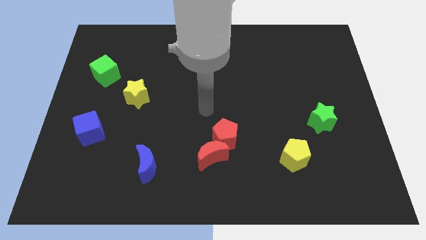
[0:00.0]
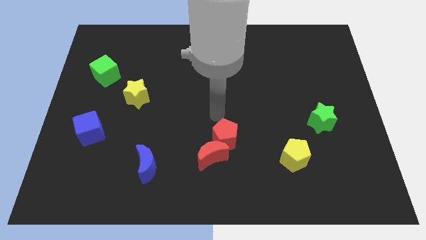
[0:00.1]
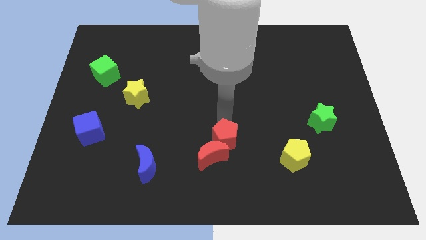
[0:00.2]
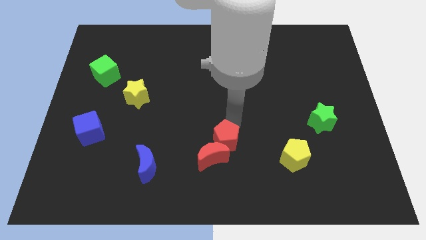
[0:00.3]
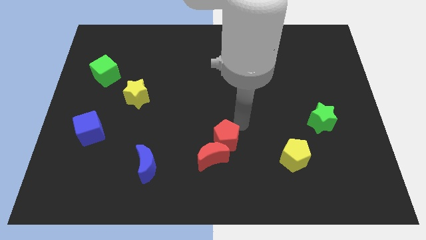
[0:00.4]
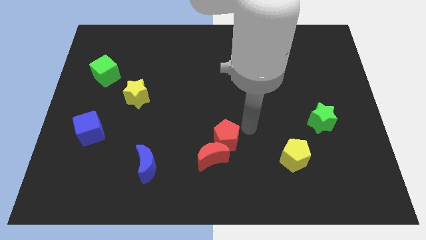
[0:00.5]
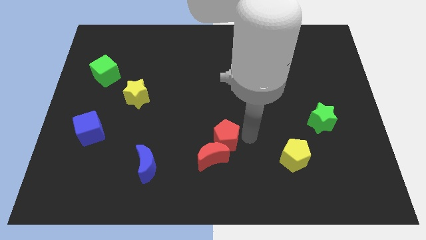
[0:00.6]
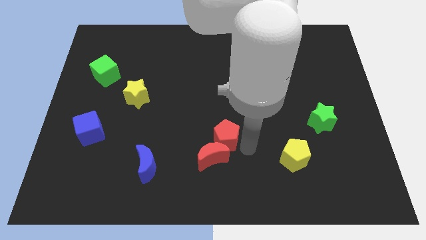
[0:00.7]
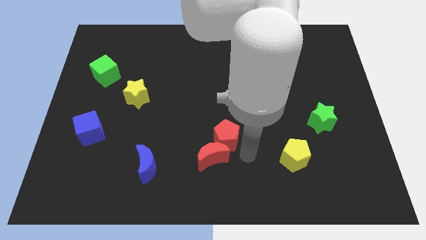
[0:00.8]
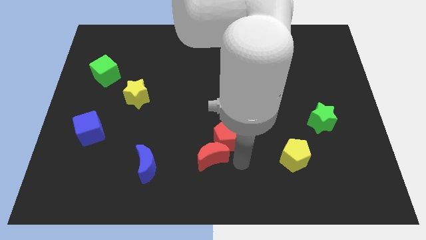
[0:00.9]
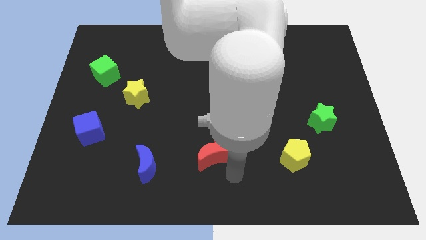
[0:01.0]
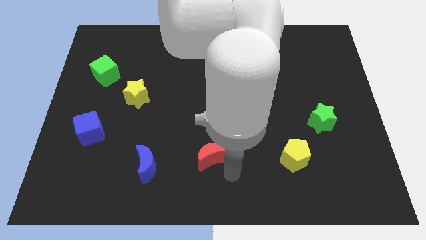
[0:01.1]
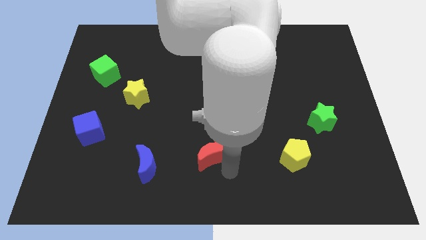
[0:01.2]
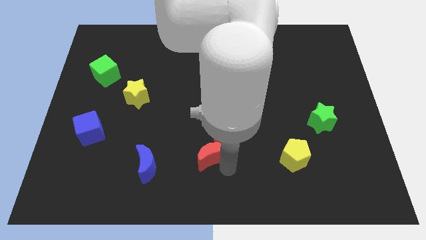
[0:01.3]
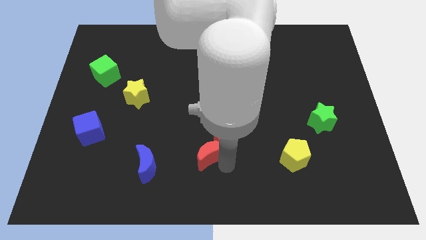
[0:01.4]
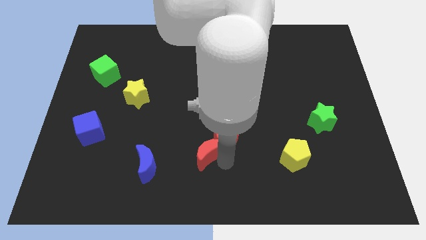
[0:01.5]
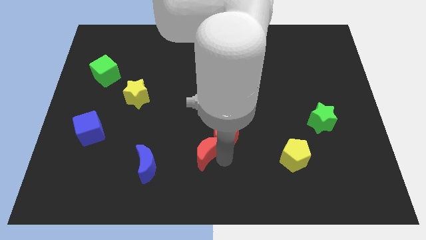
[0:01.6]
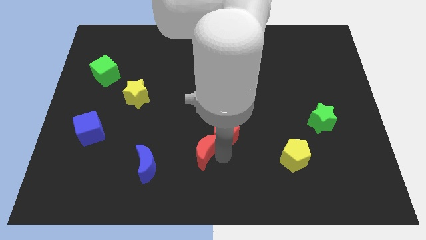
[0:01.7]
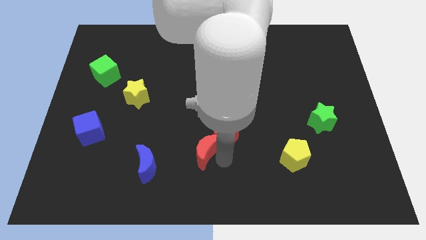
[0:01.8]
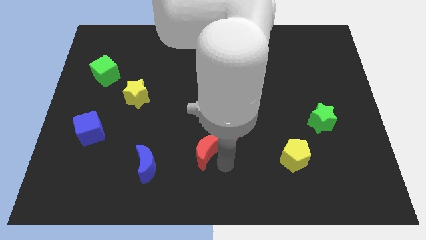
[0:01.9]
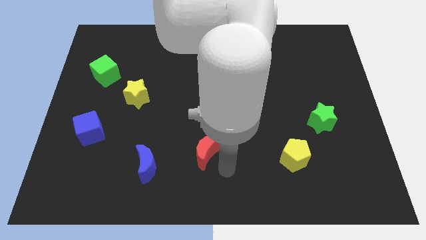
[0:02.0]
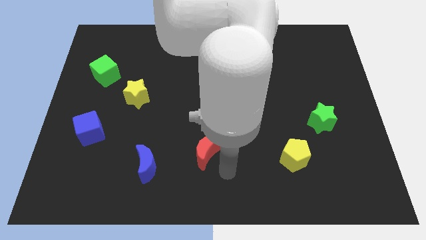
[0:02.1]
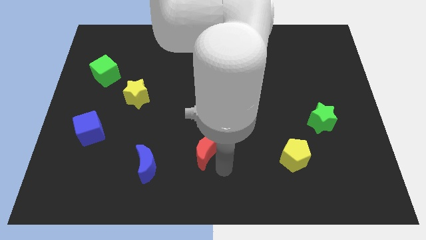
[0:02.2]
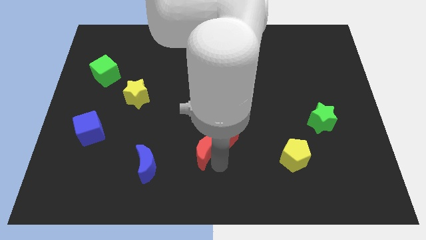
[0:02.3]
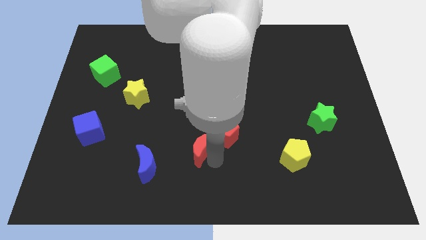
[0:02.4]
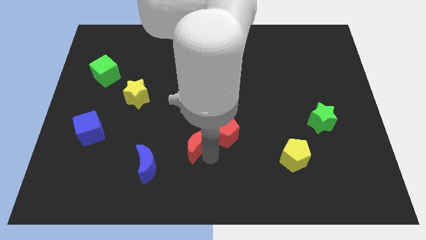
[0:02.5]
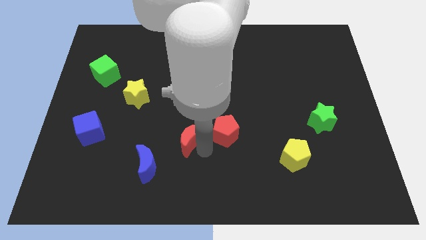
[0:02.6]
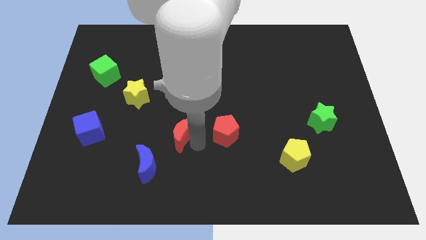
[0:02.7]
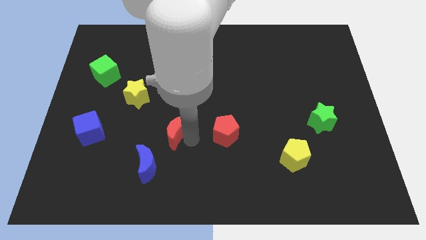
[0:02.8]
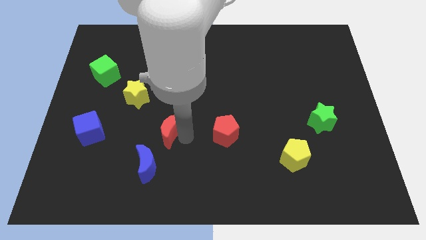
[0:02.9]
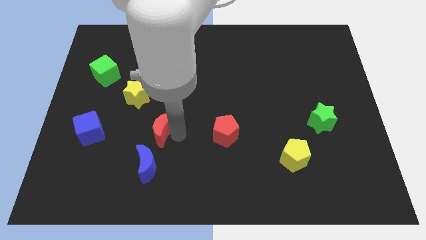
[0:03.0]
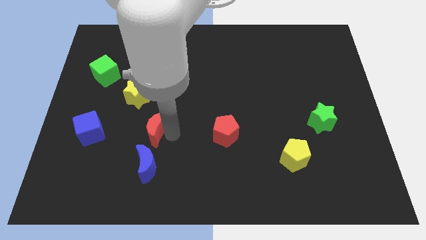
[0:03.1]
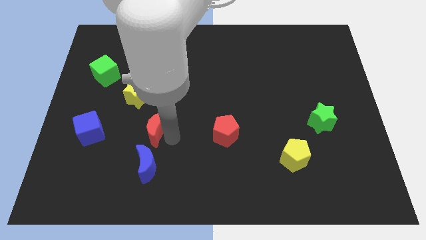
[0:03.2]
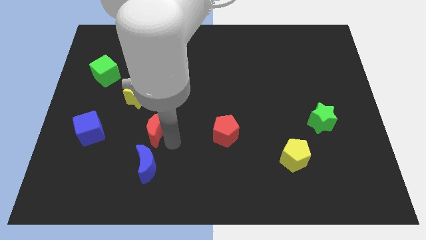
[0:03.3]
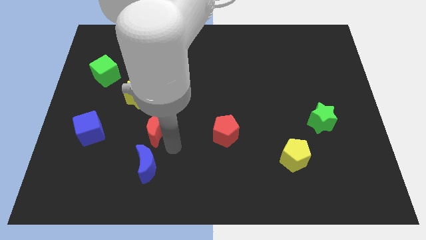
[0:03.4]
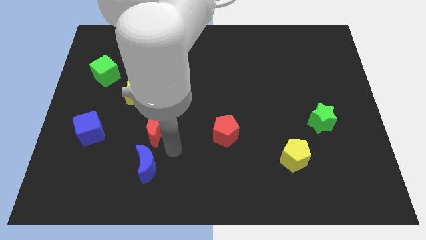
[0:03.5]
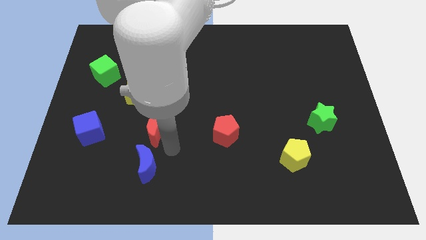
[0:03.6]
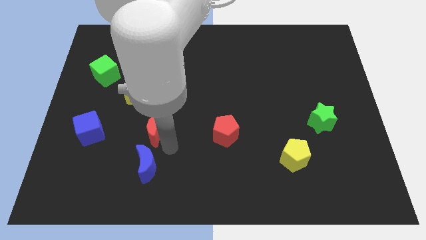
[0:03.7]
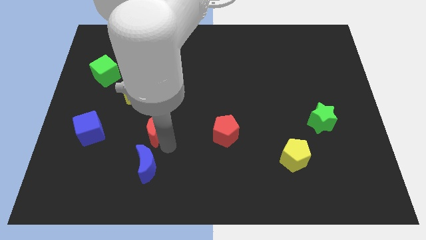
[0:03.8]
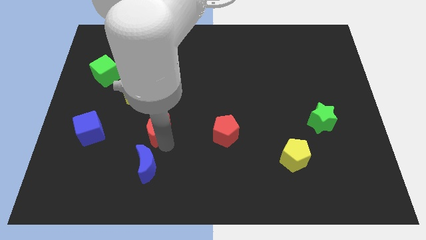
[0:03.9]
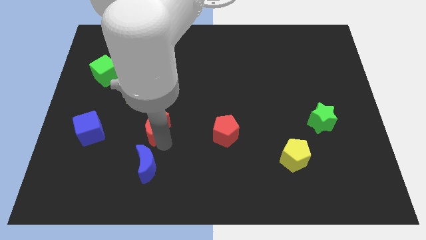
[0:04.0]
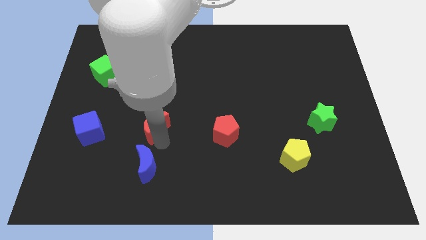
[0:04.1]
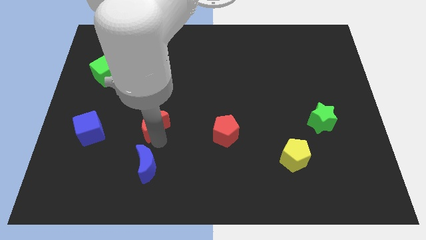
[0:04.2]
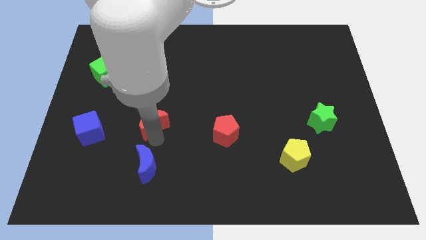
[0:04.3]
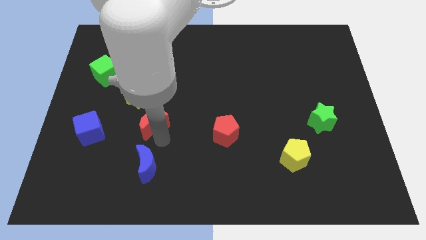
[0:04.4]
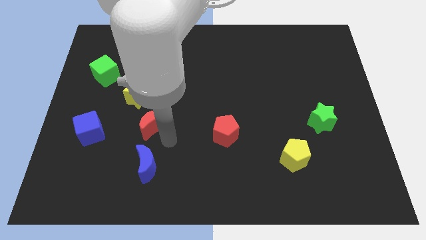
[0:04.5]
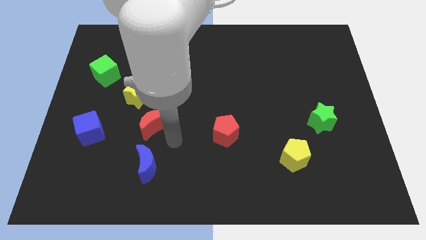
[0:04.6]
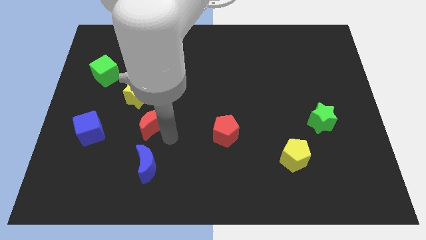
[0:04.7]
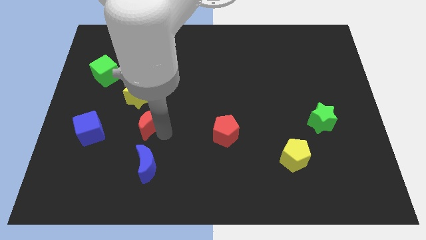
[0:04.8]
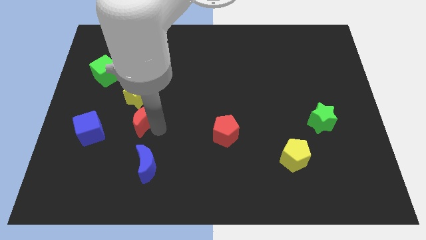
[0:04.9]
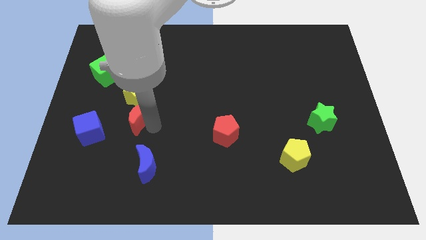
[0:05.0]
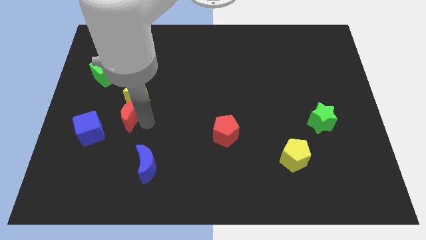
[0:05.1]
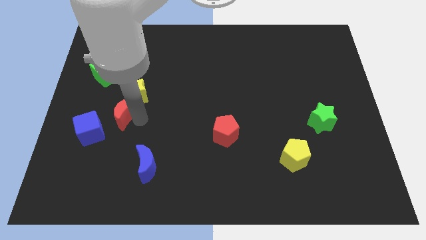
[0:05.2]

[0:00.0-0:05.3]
move the red moon upwards and to the left

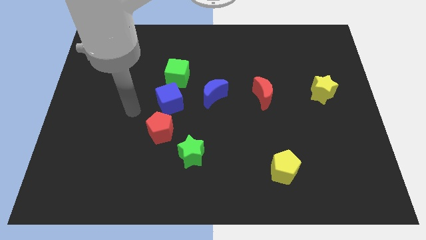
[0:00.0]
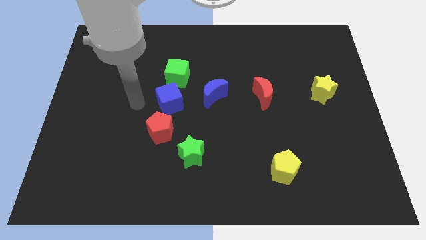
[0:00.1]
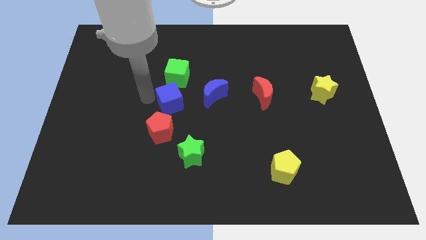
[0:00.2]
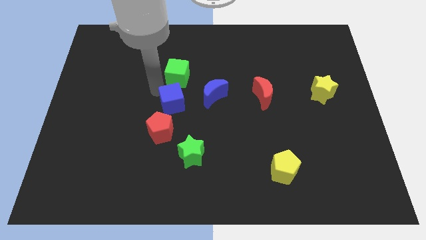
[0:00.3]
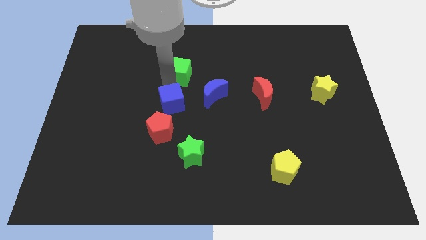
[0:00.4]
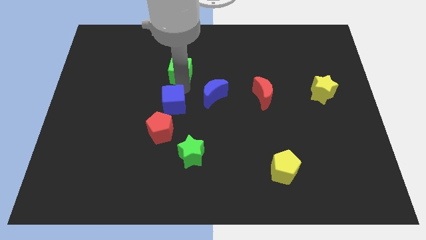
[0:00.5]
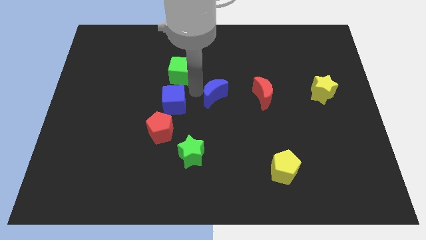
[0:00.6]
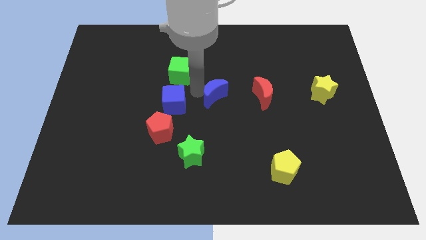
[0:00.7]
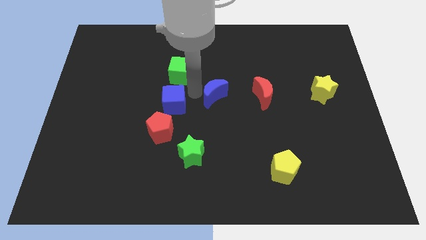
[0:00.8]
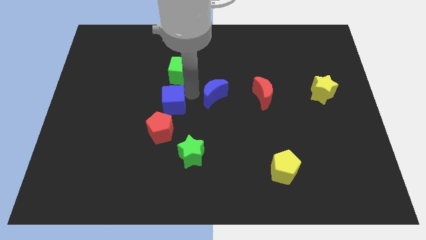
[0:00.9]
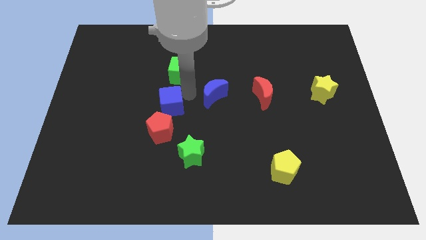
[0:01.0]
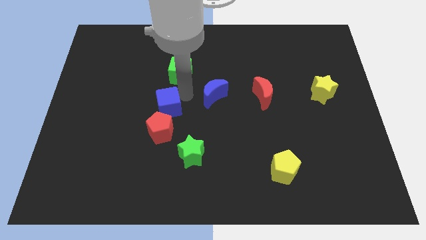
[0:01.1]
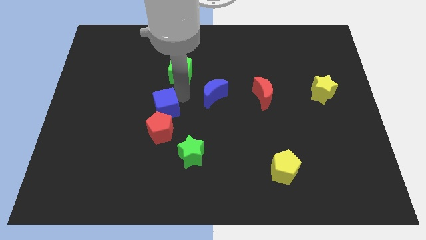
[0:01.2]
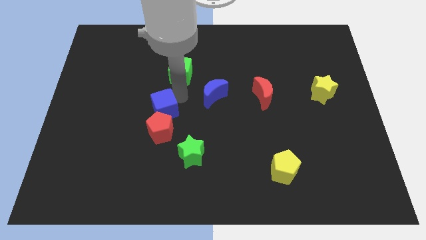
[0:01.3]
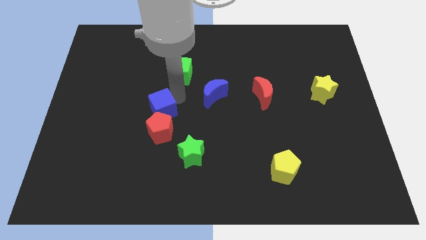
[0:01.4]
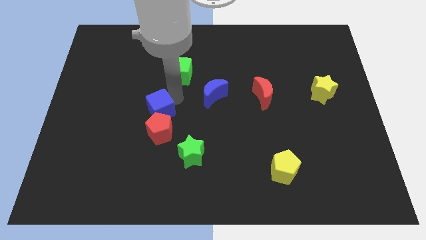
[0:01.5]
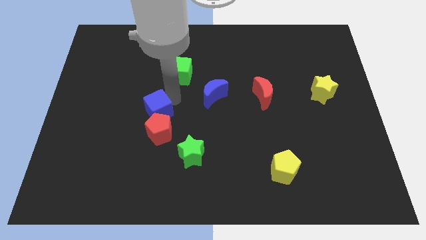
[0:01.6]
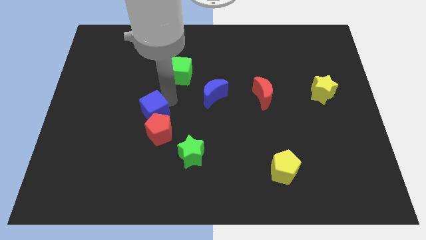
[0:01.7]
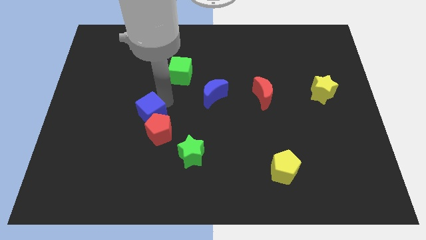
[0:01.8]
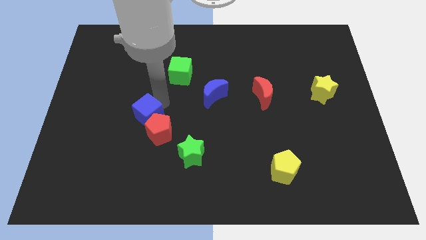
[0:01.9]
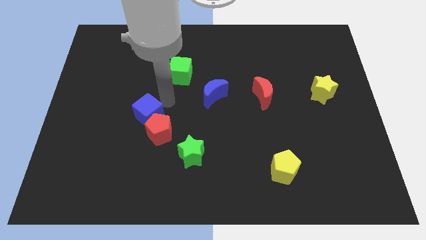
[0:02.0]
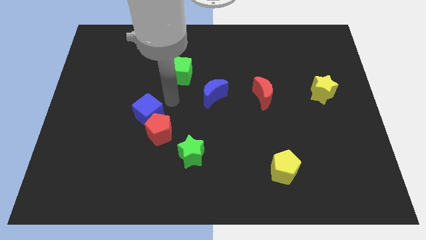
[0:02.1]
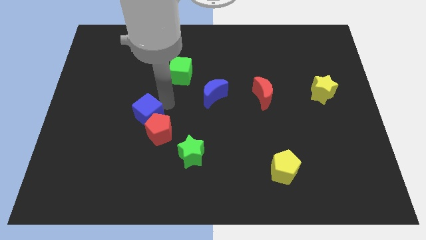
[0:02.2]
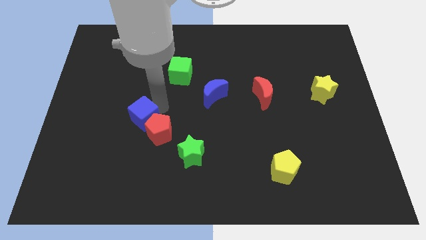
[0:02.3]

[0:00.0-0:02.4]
push the blue cube downwards and then to the left a little

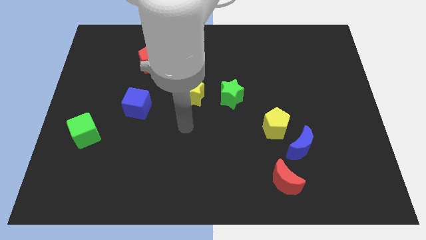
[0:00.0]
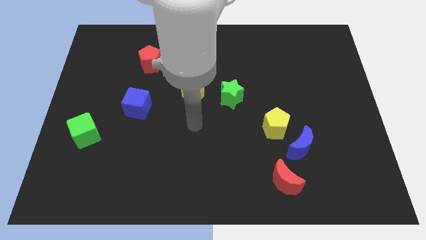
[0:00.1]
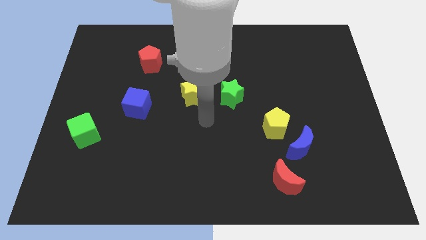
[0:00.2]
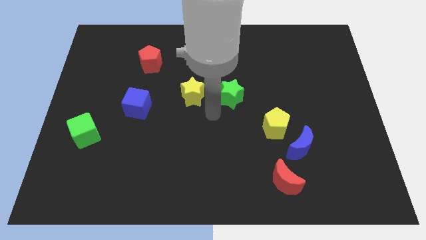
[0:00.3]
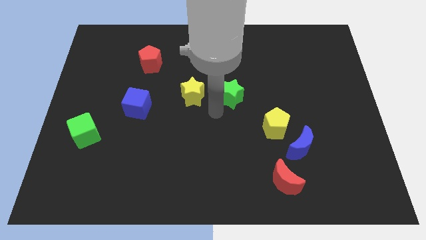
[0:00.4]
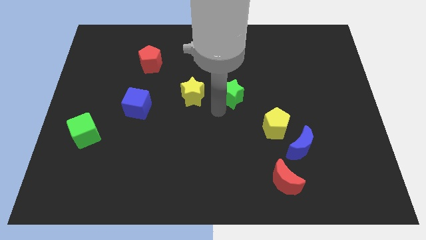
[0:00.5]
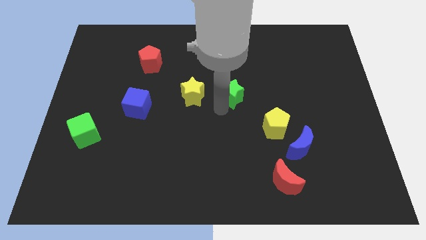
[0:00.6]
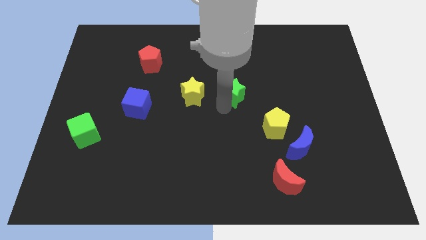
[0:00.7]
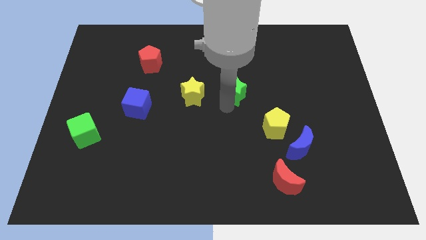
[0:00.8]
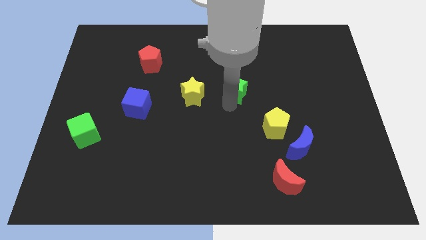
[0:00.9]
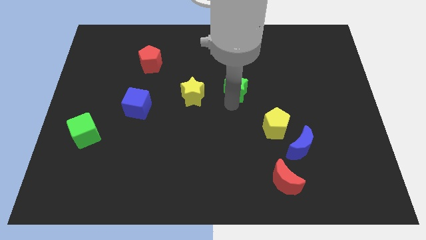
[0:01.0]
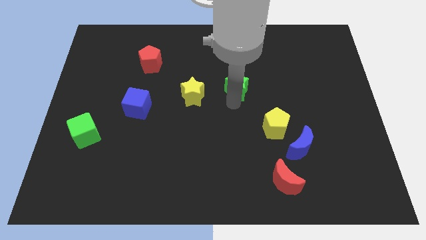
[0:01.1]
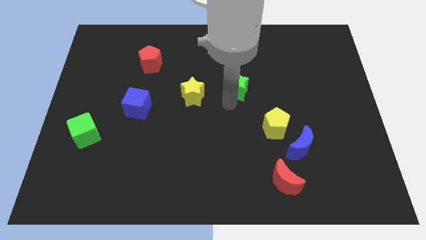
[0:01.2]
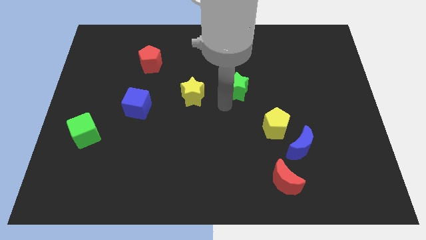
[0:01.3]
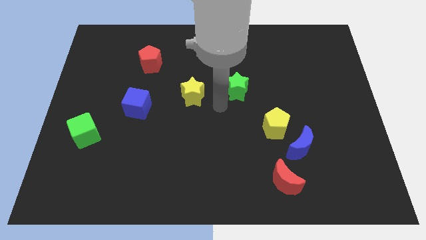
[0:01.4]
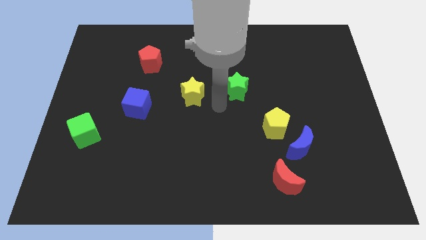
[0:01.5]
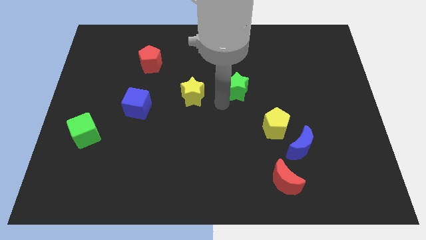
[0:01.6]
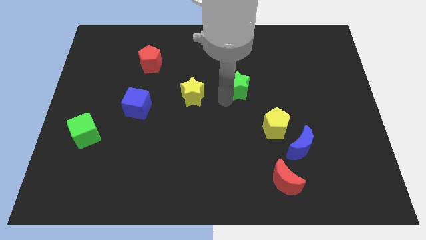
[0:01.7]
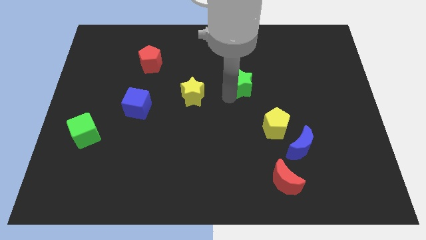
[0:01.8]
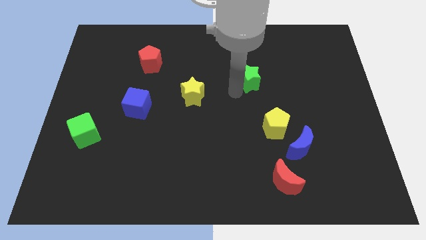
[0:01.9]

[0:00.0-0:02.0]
push the green star up and right diagonally a little
